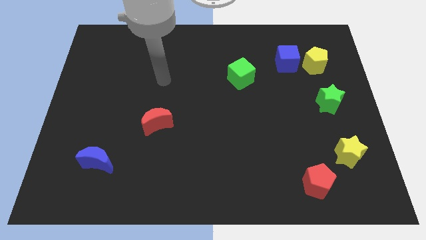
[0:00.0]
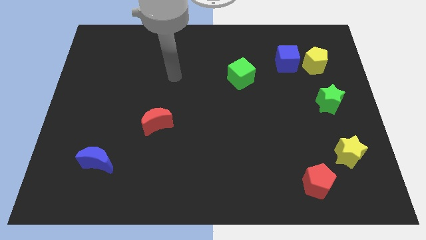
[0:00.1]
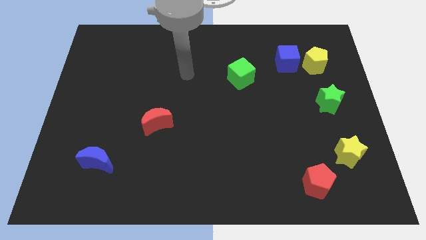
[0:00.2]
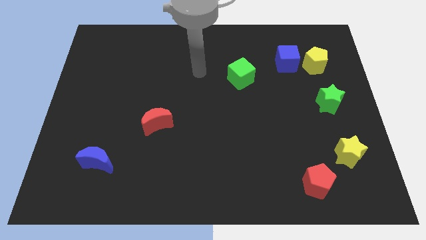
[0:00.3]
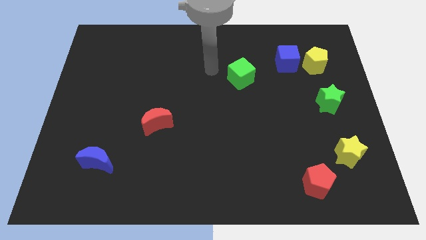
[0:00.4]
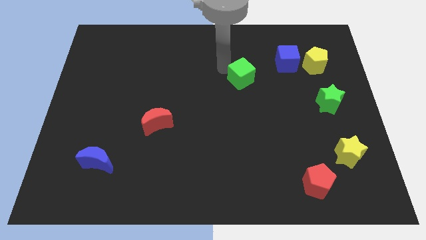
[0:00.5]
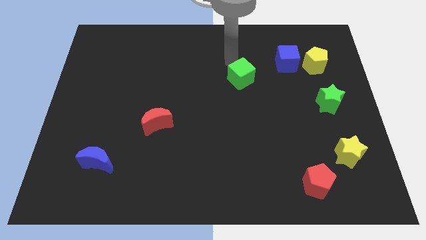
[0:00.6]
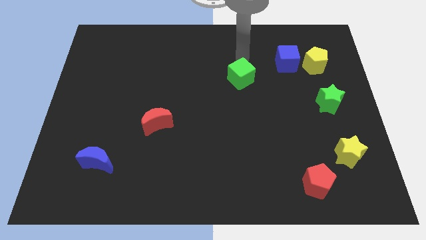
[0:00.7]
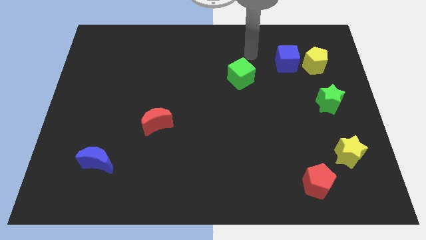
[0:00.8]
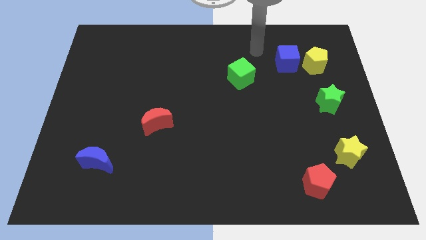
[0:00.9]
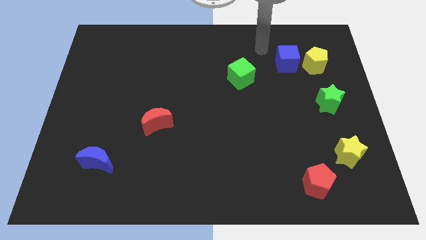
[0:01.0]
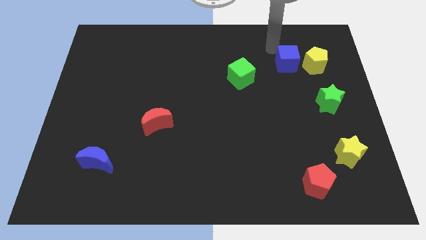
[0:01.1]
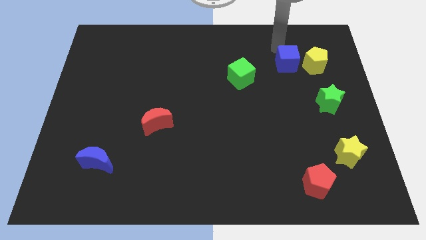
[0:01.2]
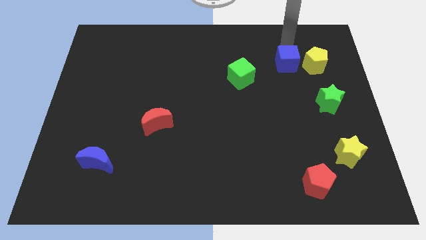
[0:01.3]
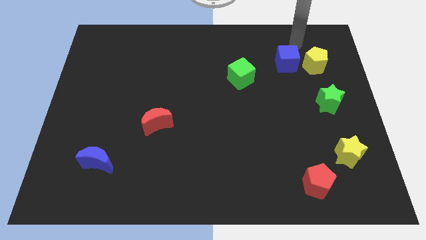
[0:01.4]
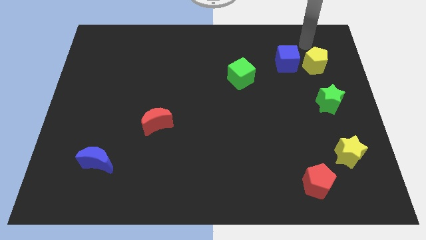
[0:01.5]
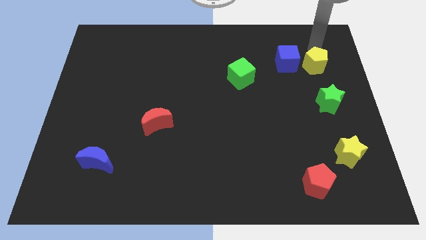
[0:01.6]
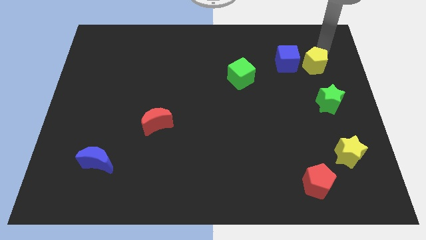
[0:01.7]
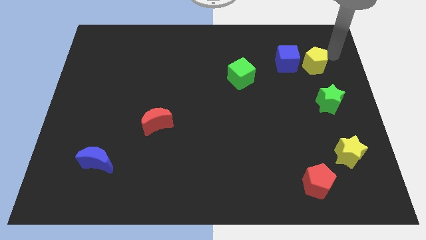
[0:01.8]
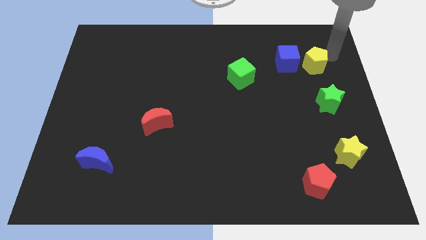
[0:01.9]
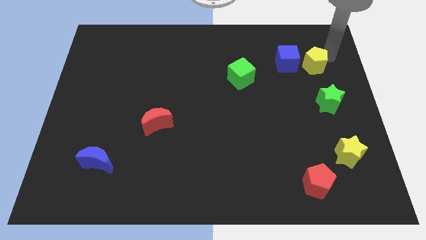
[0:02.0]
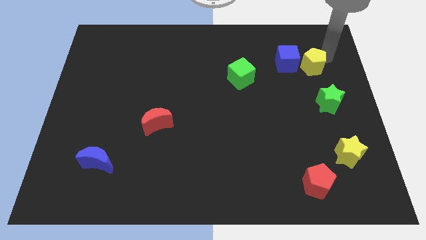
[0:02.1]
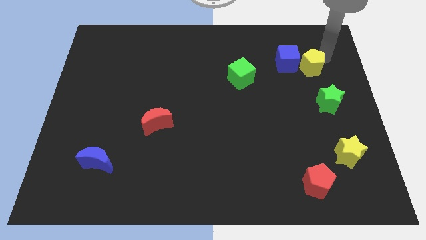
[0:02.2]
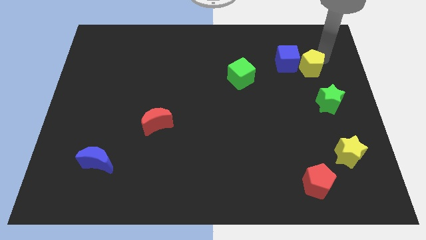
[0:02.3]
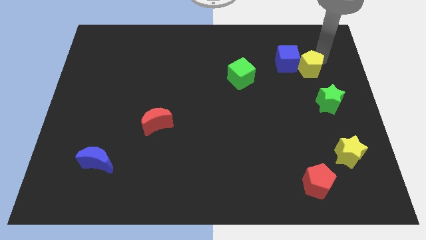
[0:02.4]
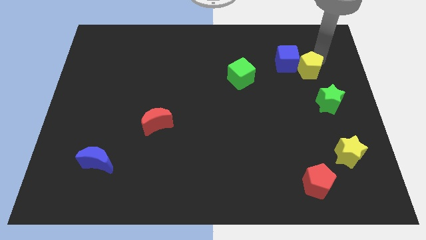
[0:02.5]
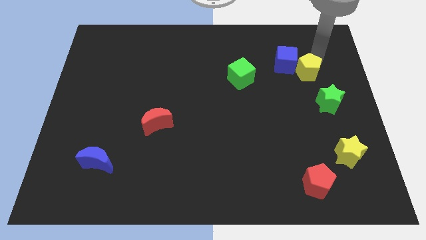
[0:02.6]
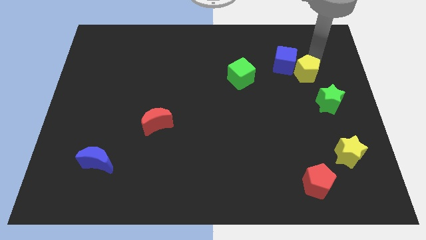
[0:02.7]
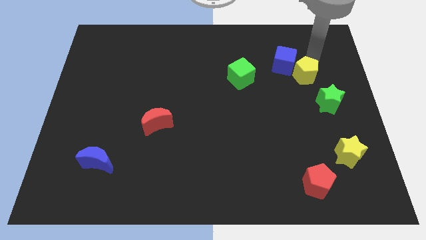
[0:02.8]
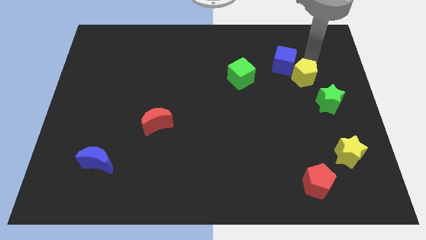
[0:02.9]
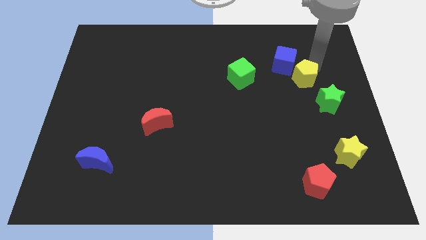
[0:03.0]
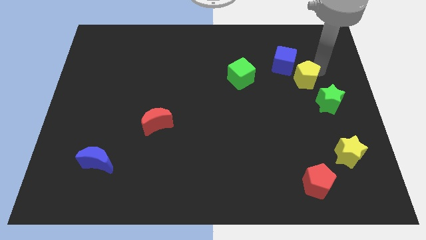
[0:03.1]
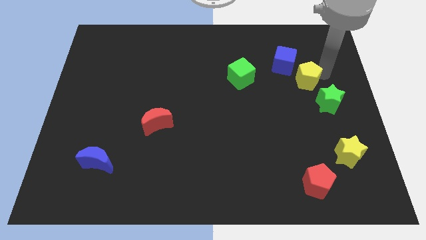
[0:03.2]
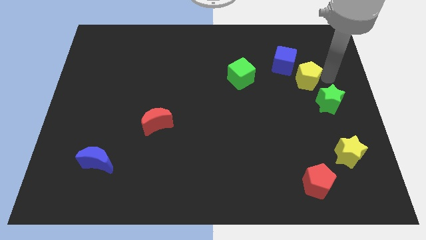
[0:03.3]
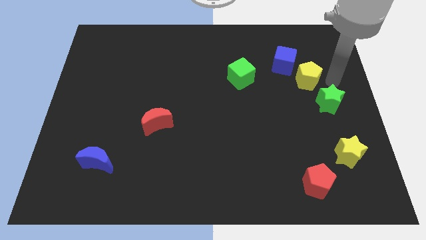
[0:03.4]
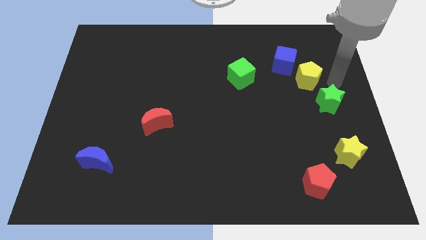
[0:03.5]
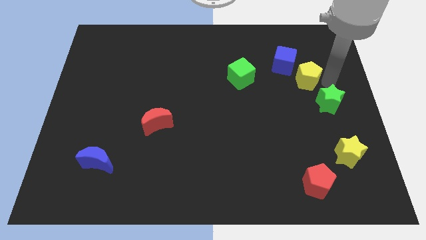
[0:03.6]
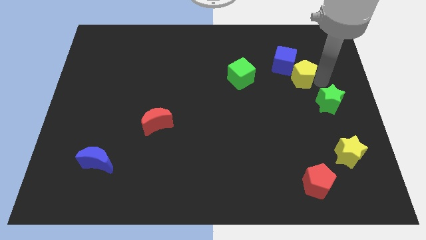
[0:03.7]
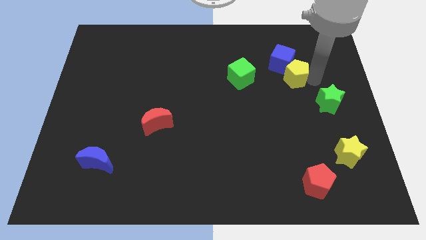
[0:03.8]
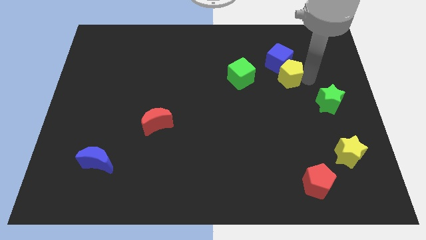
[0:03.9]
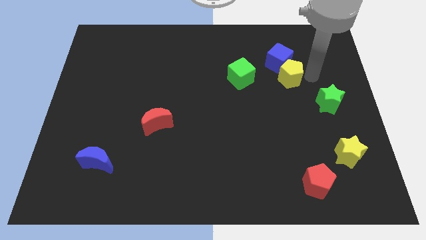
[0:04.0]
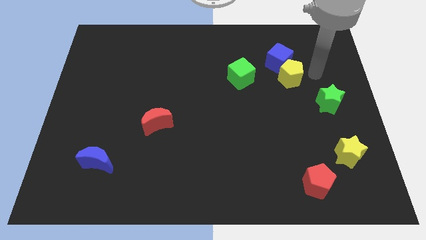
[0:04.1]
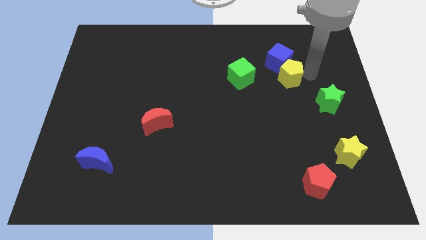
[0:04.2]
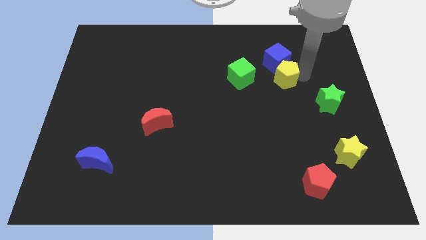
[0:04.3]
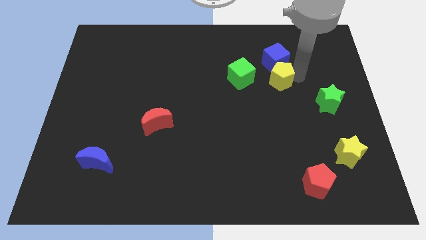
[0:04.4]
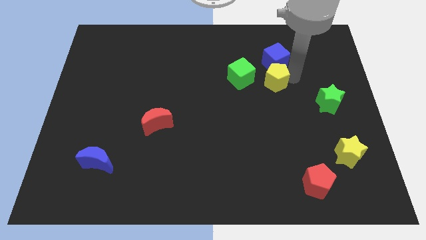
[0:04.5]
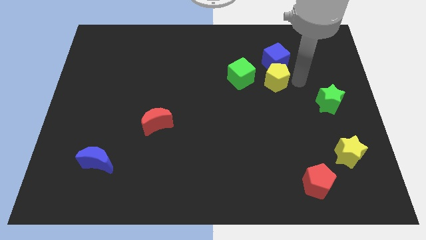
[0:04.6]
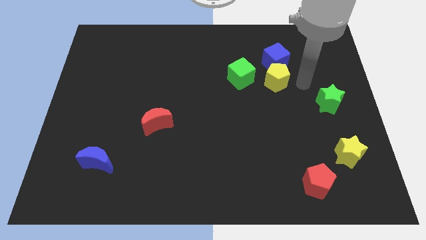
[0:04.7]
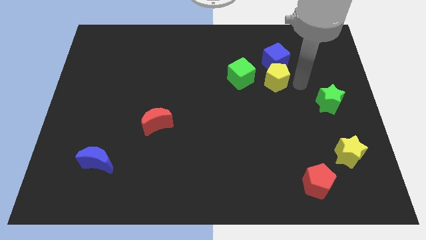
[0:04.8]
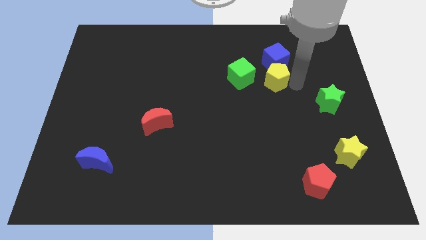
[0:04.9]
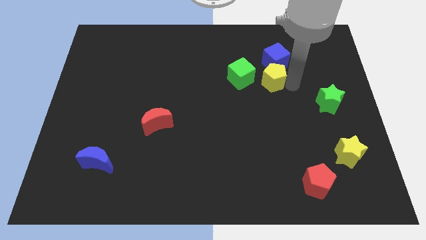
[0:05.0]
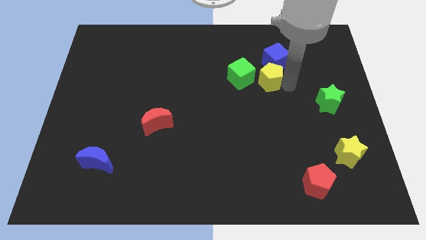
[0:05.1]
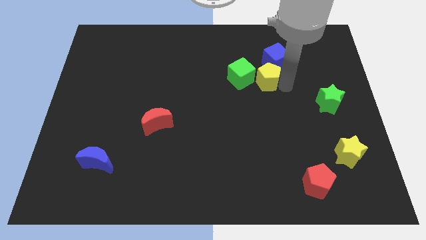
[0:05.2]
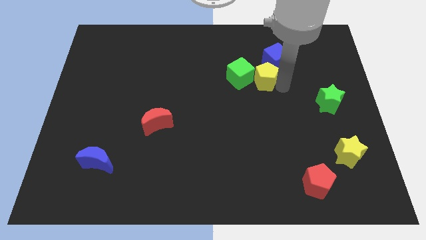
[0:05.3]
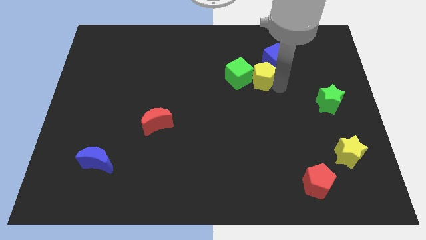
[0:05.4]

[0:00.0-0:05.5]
push the yellow pentagon close to the green cube
